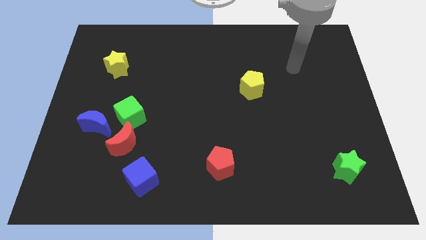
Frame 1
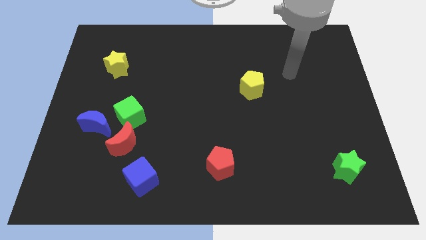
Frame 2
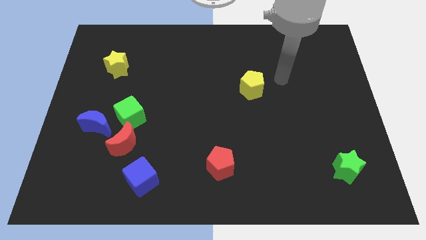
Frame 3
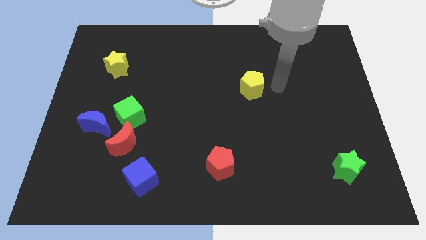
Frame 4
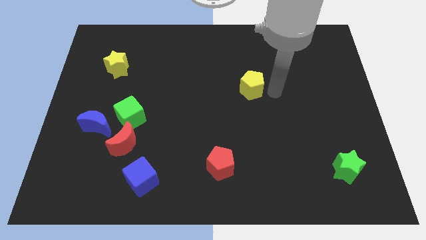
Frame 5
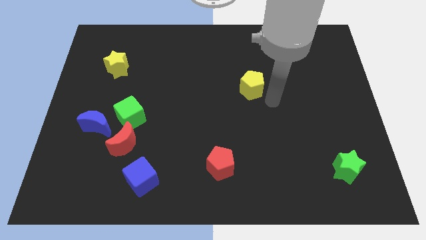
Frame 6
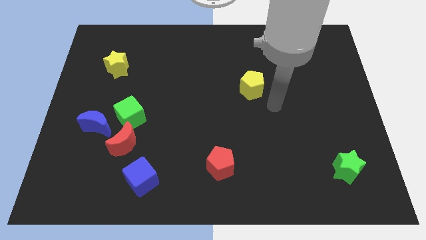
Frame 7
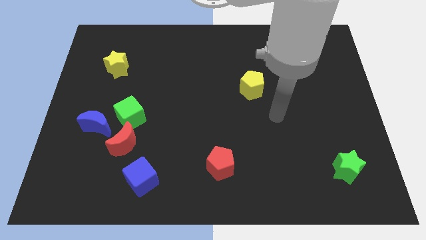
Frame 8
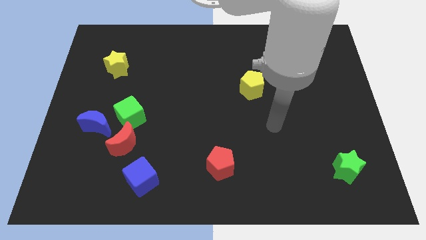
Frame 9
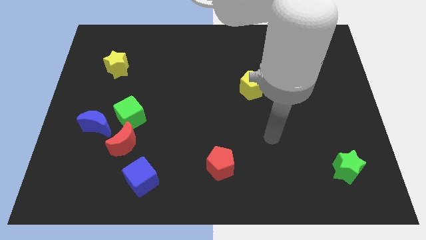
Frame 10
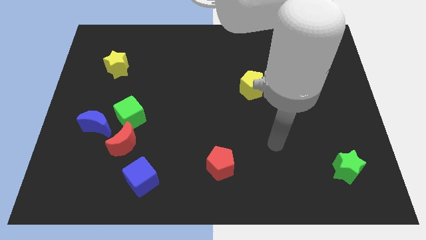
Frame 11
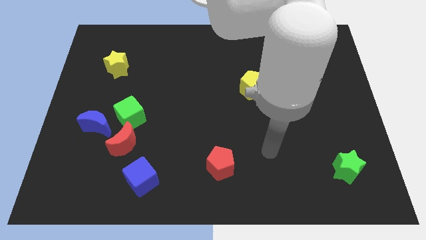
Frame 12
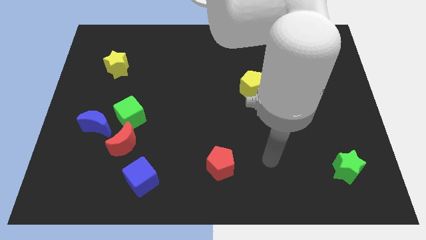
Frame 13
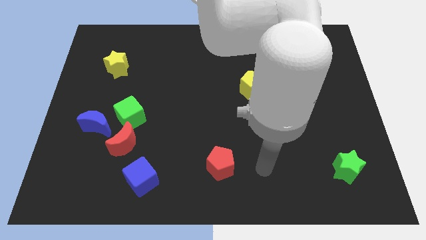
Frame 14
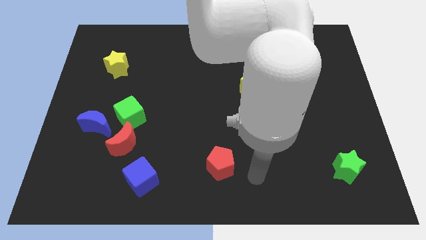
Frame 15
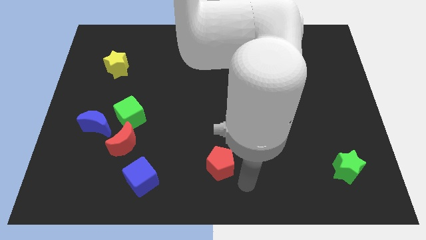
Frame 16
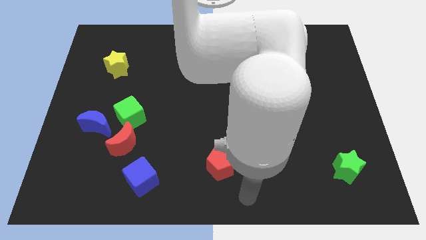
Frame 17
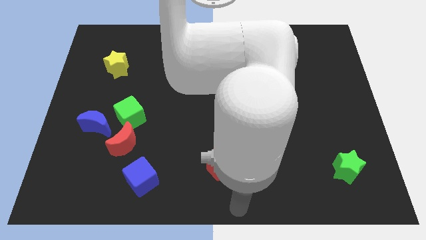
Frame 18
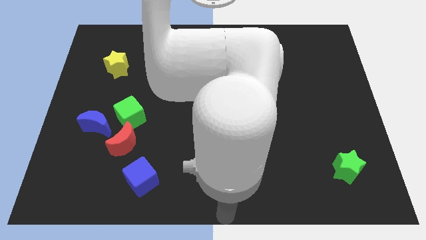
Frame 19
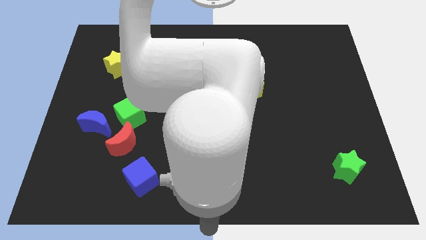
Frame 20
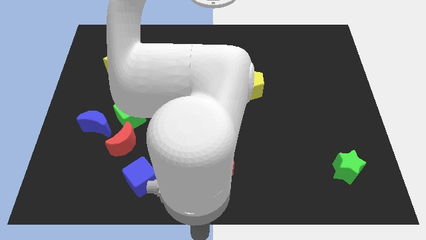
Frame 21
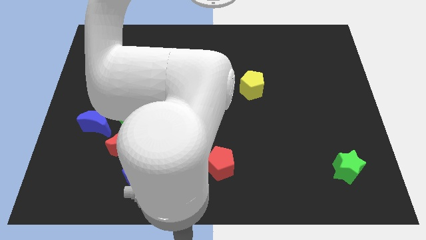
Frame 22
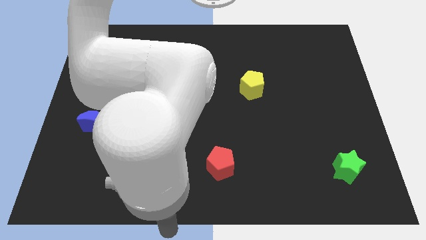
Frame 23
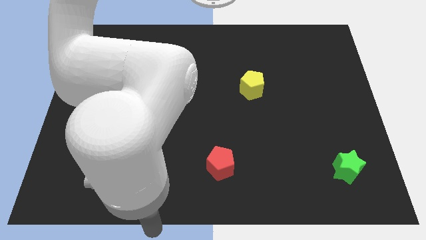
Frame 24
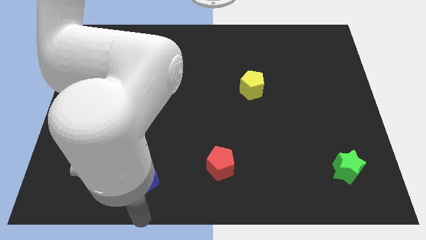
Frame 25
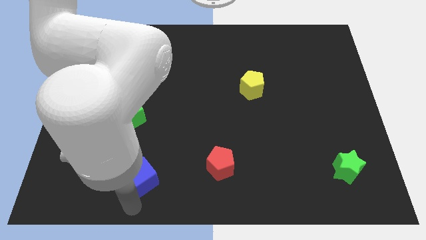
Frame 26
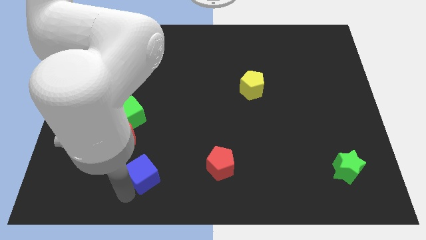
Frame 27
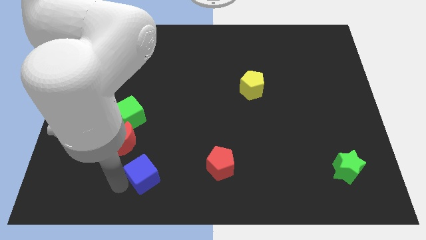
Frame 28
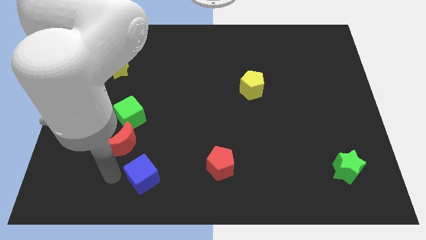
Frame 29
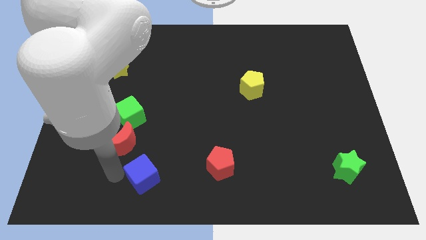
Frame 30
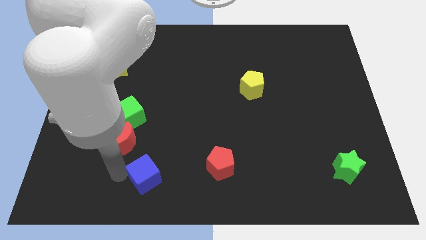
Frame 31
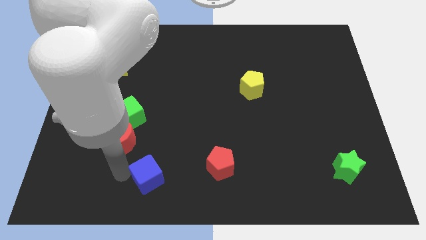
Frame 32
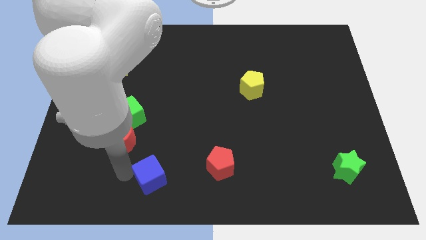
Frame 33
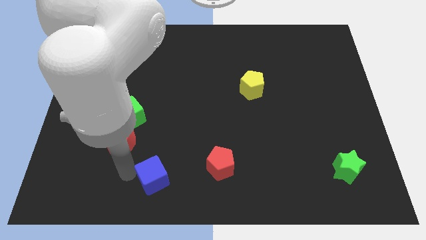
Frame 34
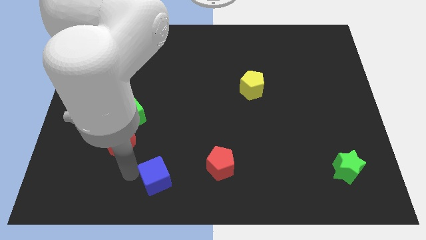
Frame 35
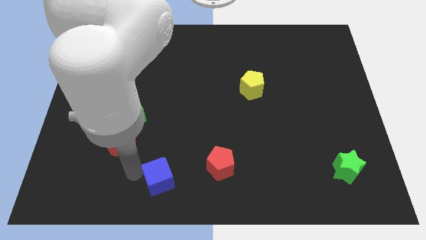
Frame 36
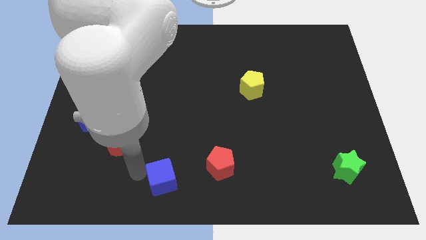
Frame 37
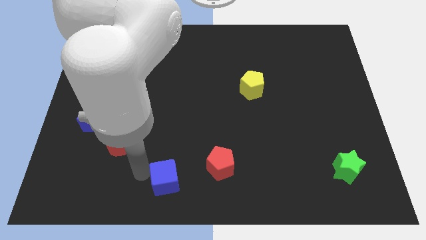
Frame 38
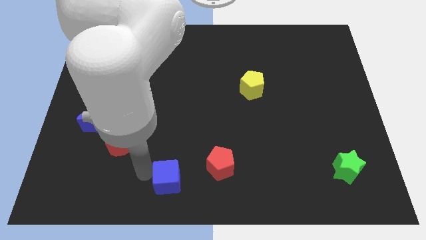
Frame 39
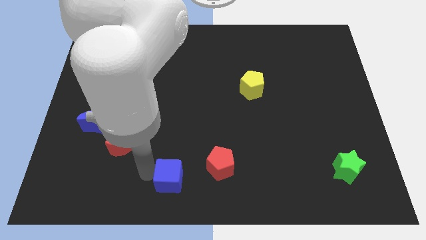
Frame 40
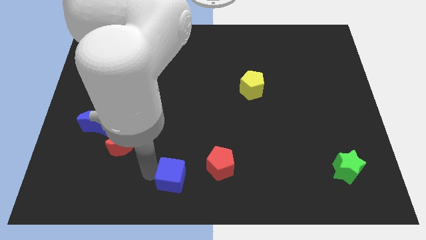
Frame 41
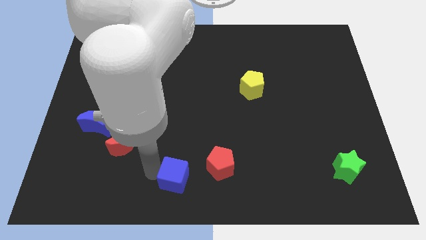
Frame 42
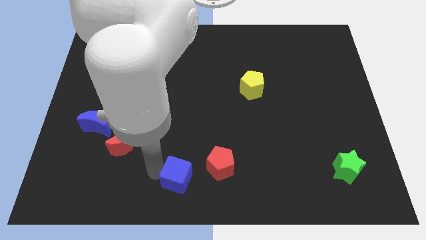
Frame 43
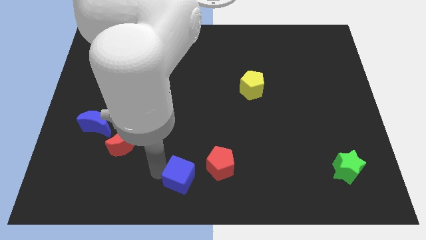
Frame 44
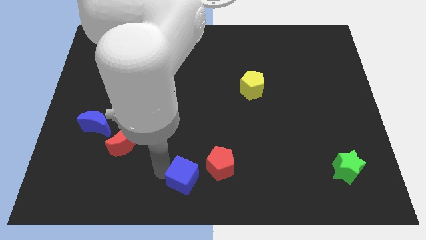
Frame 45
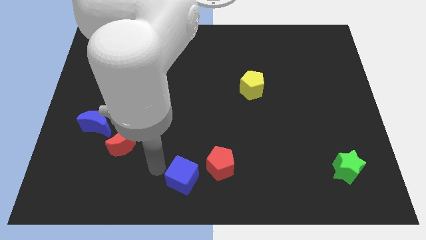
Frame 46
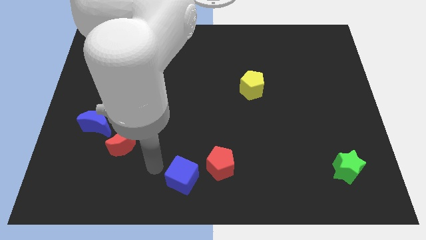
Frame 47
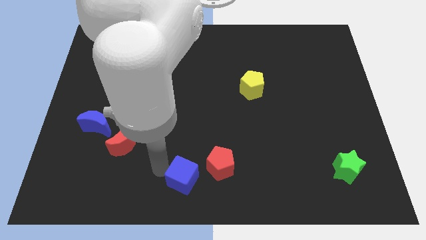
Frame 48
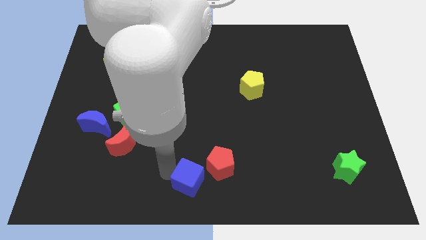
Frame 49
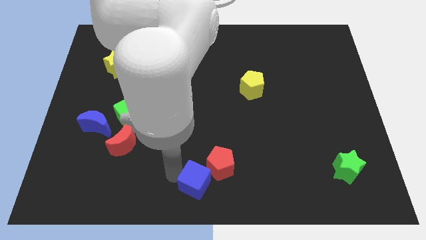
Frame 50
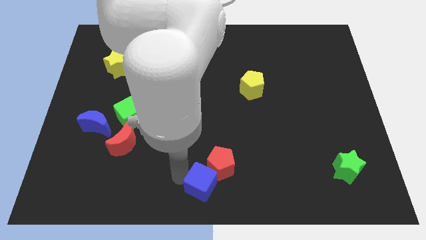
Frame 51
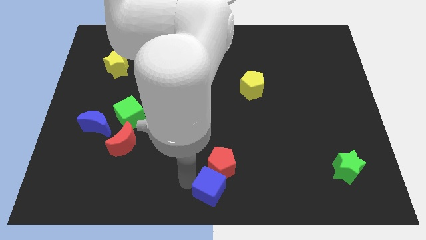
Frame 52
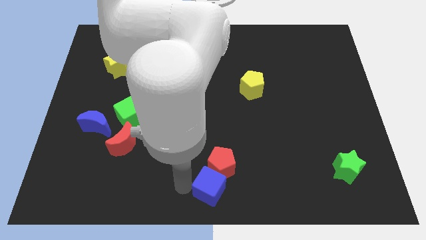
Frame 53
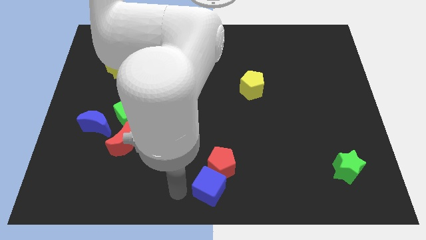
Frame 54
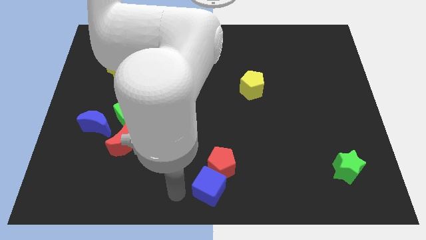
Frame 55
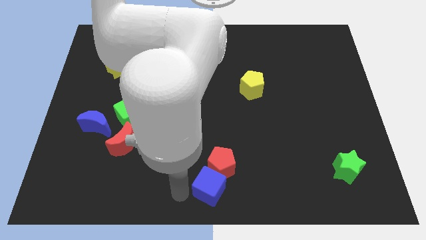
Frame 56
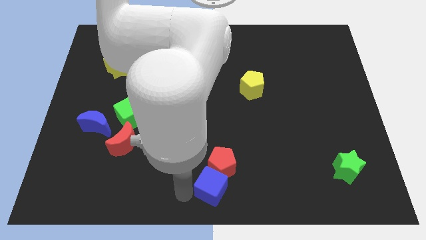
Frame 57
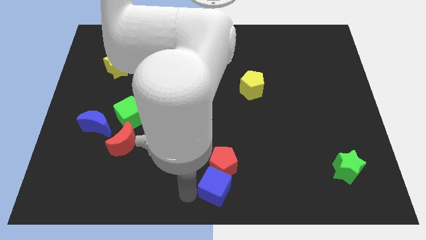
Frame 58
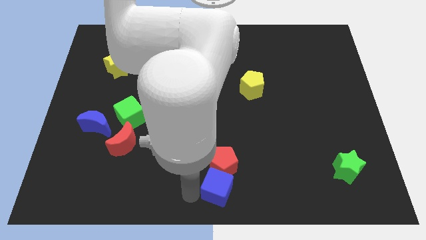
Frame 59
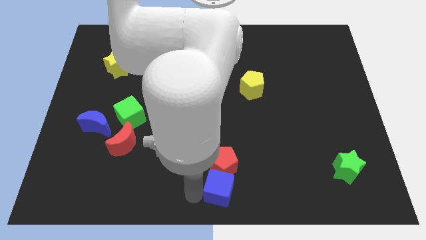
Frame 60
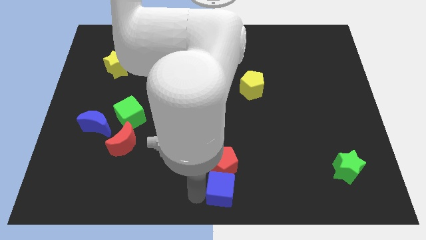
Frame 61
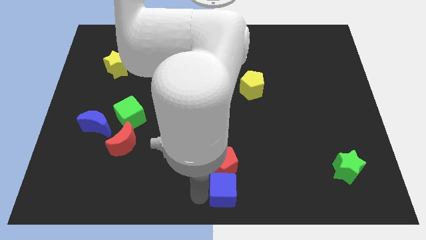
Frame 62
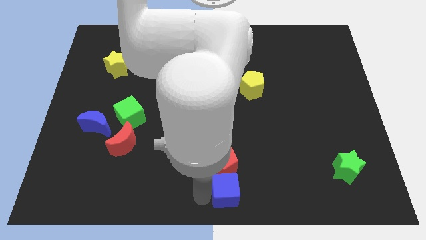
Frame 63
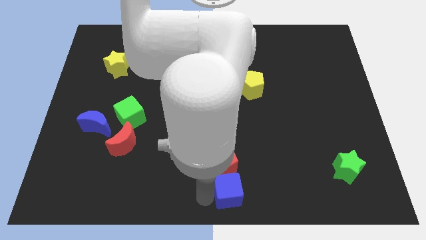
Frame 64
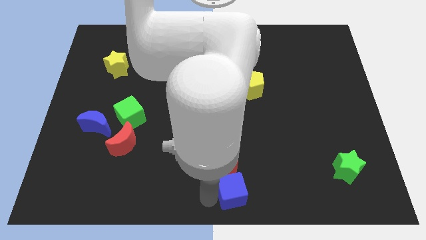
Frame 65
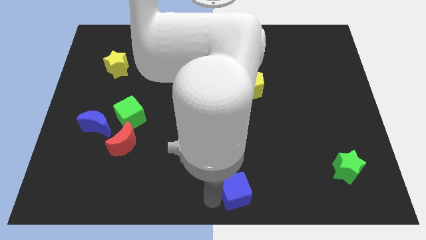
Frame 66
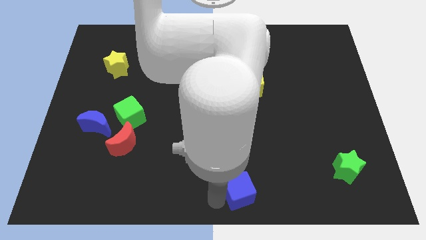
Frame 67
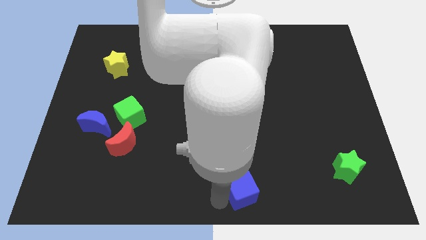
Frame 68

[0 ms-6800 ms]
move the blue cube right

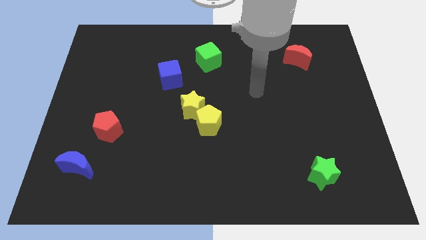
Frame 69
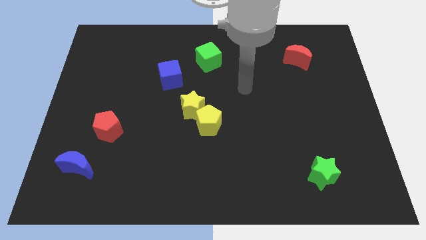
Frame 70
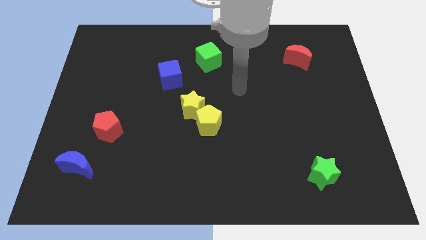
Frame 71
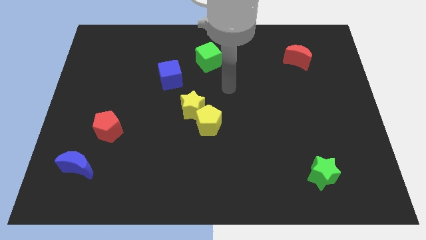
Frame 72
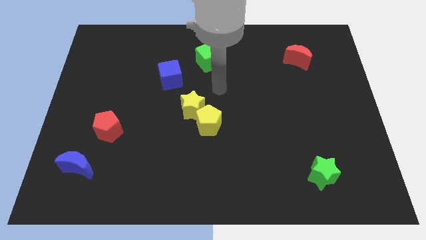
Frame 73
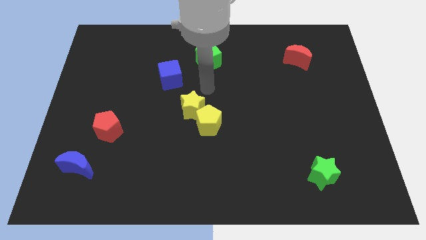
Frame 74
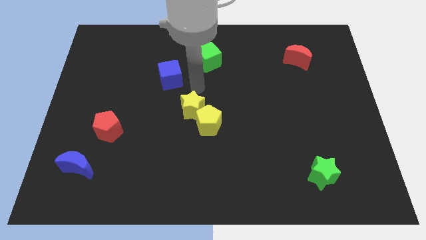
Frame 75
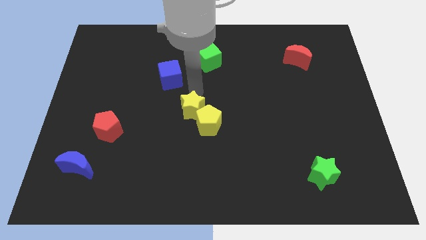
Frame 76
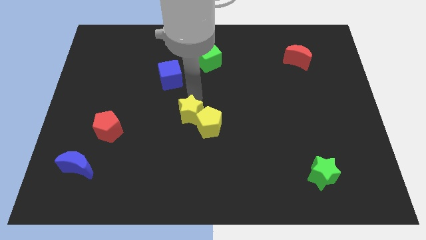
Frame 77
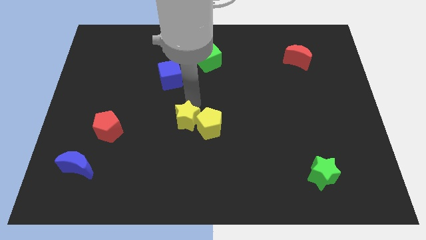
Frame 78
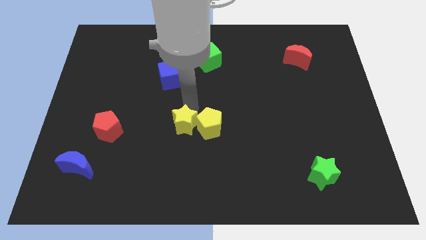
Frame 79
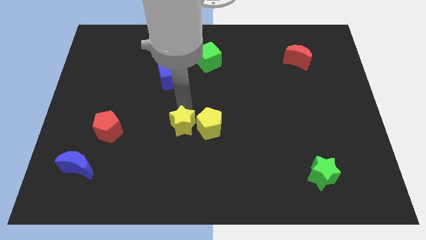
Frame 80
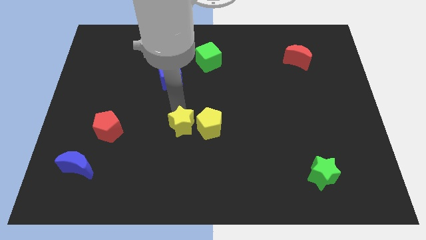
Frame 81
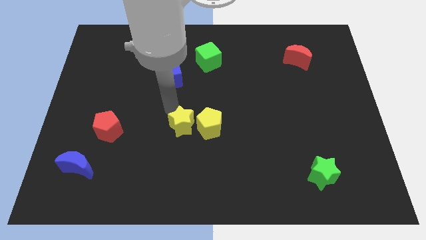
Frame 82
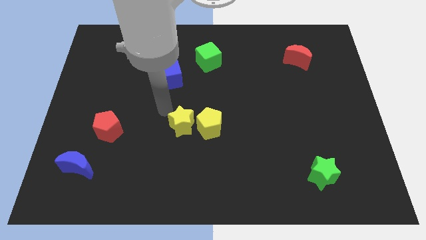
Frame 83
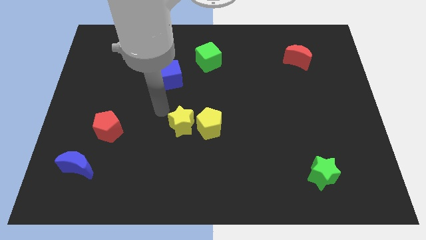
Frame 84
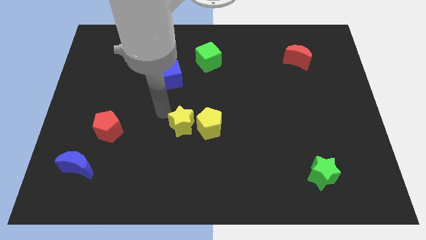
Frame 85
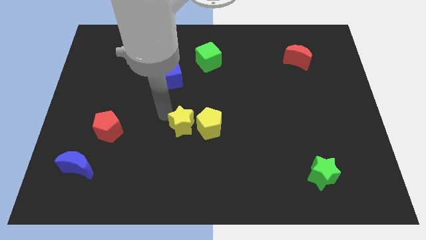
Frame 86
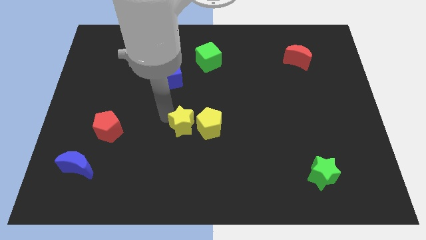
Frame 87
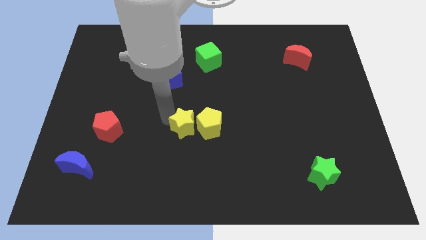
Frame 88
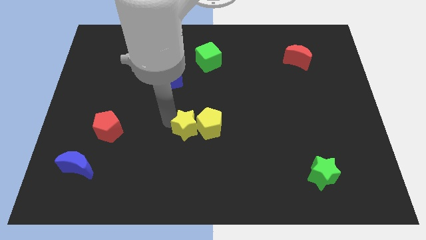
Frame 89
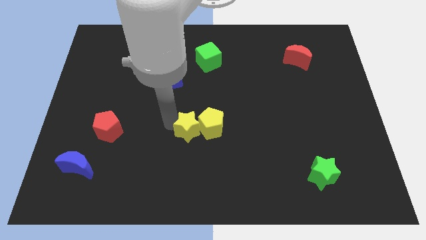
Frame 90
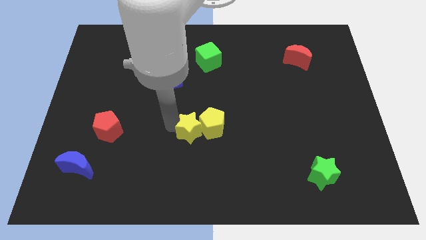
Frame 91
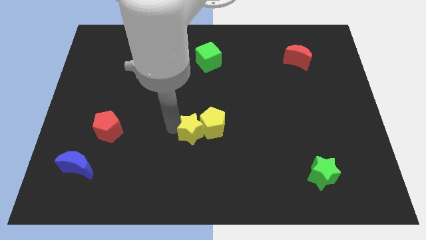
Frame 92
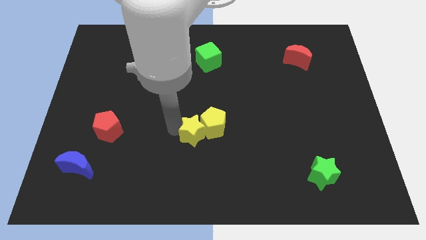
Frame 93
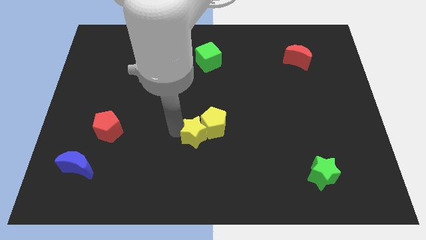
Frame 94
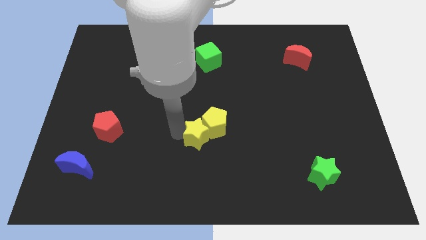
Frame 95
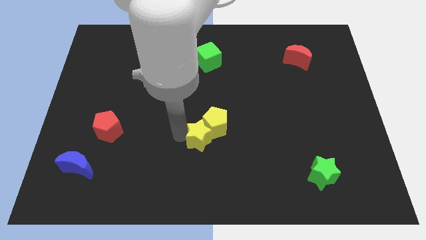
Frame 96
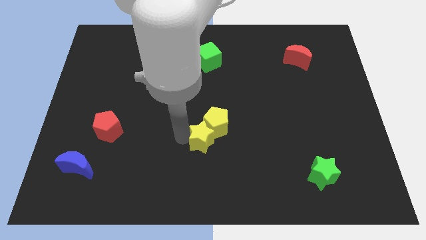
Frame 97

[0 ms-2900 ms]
slide the yellow star down and to the right a little
